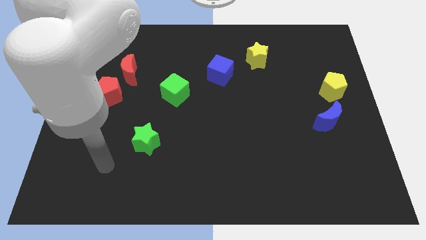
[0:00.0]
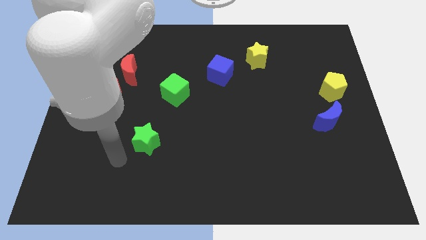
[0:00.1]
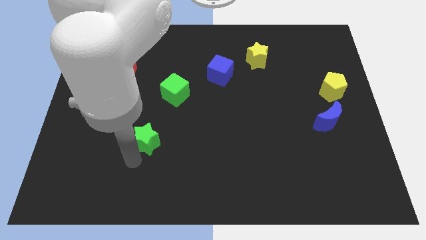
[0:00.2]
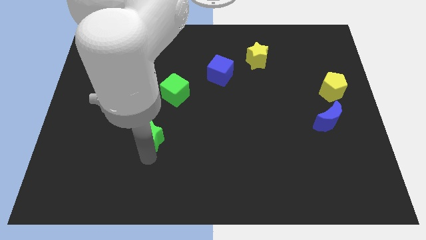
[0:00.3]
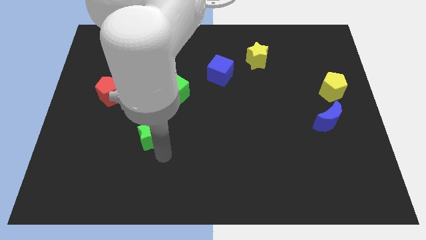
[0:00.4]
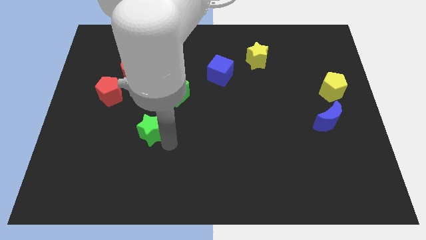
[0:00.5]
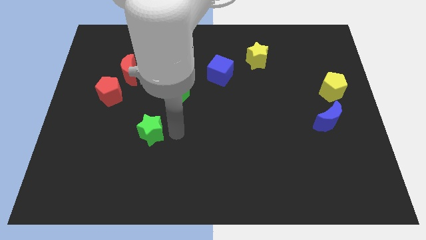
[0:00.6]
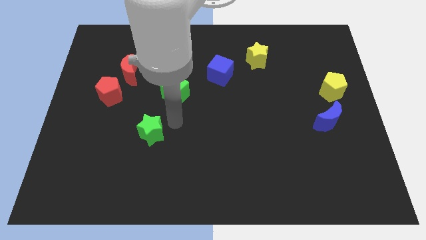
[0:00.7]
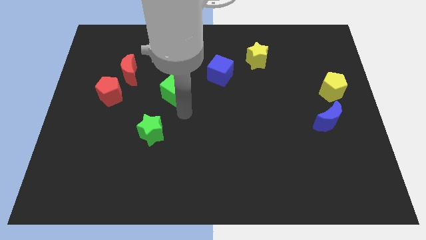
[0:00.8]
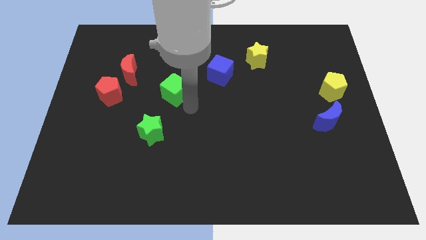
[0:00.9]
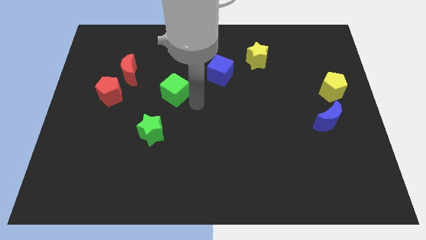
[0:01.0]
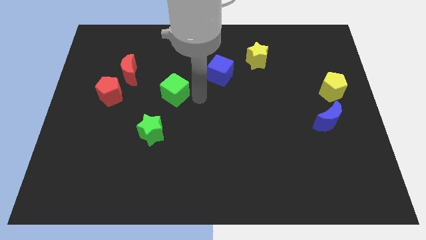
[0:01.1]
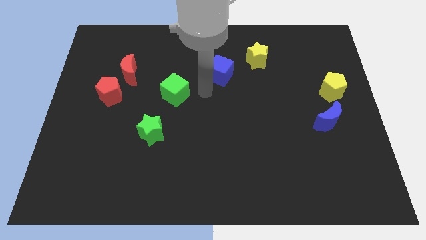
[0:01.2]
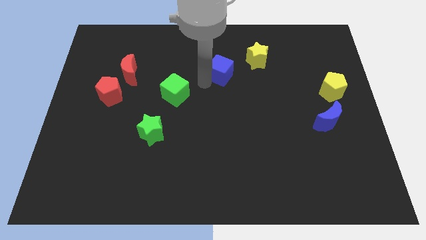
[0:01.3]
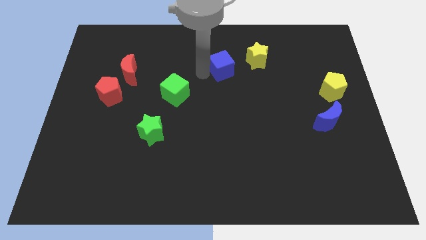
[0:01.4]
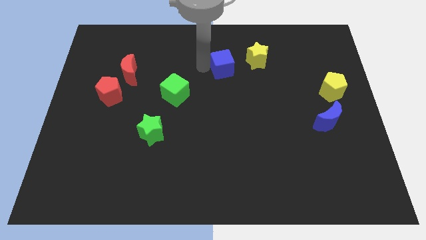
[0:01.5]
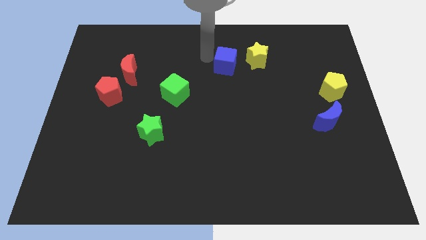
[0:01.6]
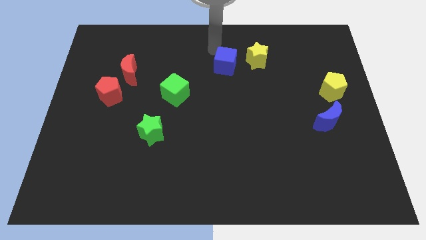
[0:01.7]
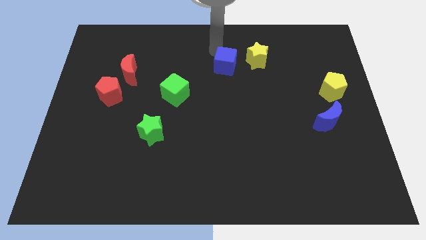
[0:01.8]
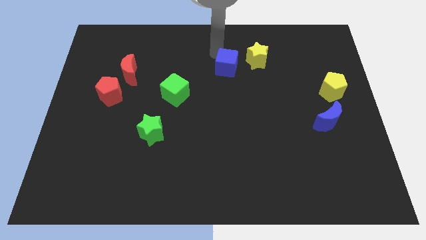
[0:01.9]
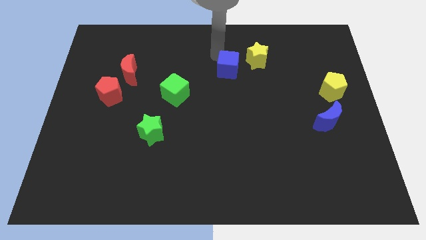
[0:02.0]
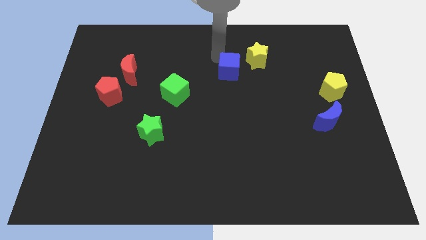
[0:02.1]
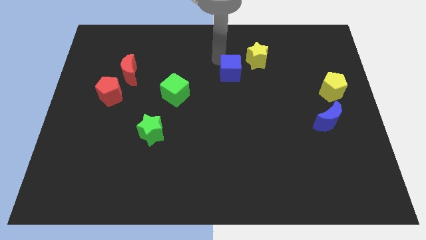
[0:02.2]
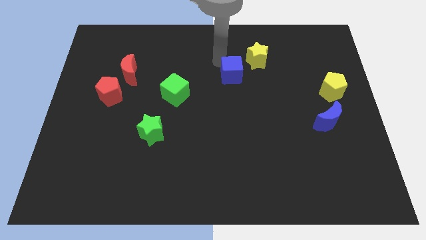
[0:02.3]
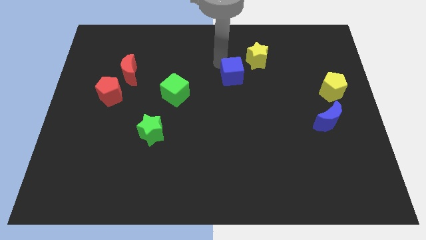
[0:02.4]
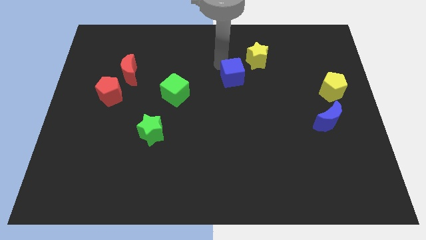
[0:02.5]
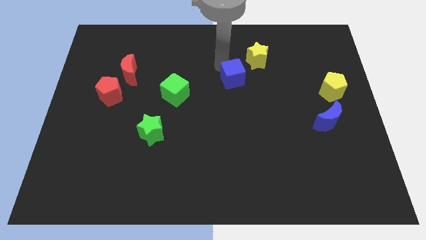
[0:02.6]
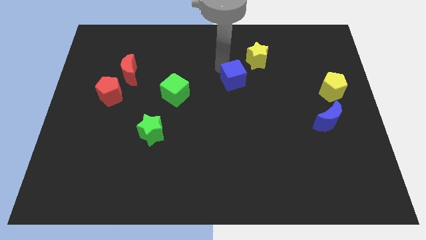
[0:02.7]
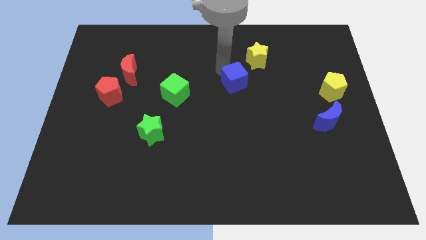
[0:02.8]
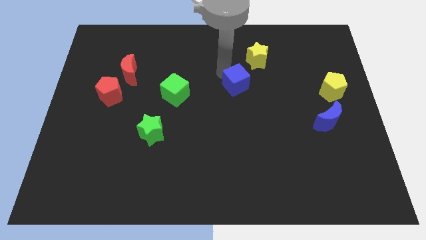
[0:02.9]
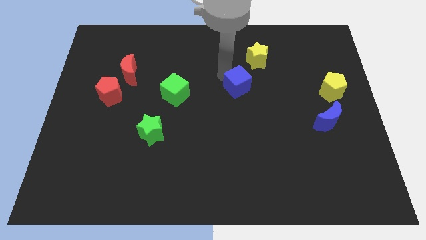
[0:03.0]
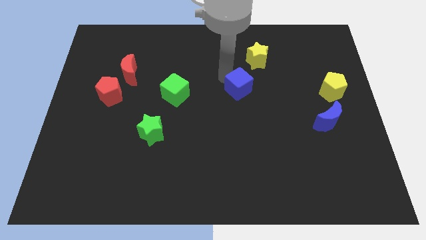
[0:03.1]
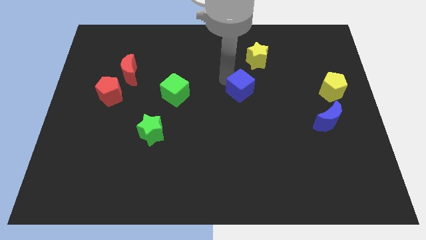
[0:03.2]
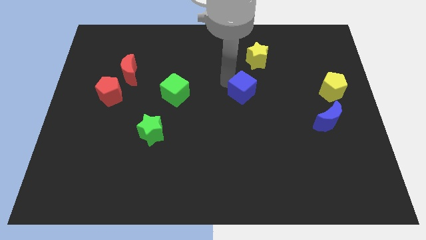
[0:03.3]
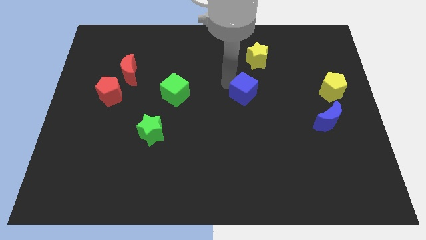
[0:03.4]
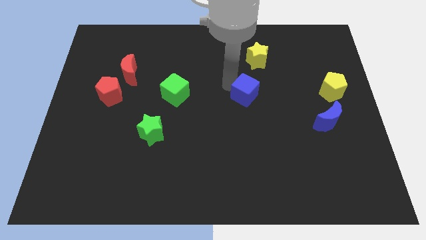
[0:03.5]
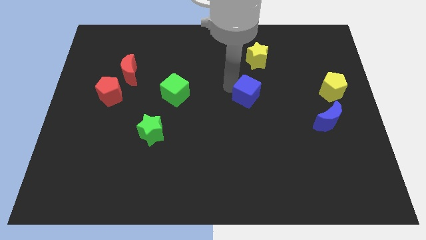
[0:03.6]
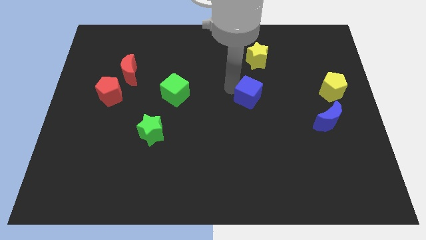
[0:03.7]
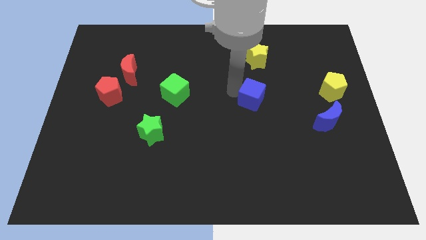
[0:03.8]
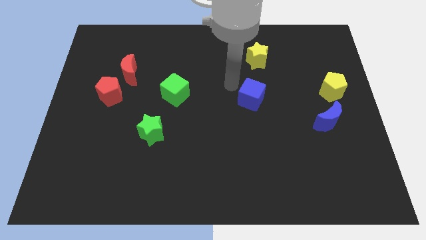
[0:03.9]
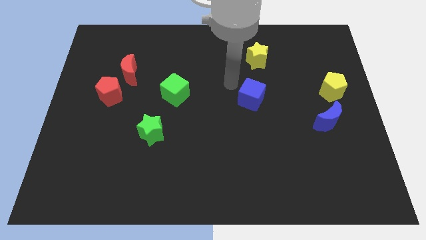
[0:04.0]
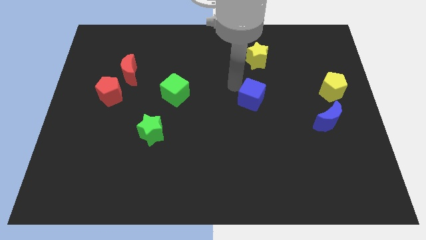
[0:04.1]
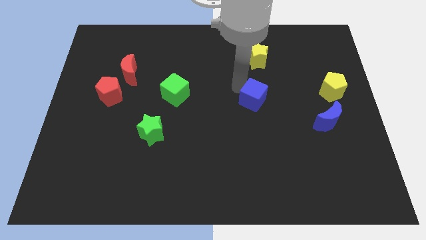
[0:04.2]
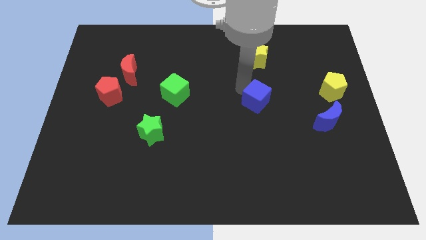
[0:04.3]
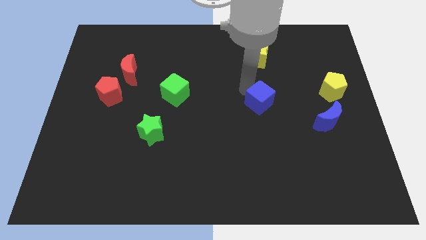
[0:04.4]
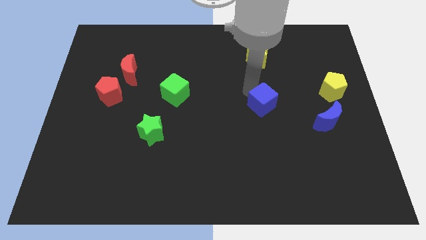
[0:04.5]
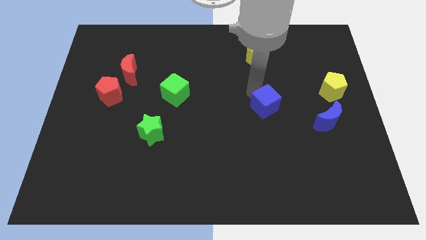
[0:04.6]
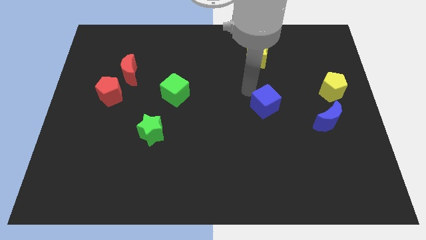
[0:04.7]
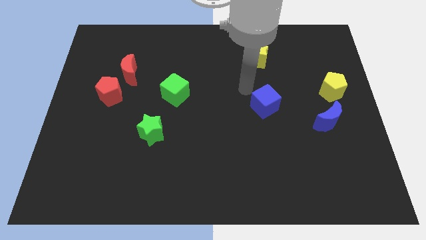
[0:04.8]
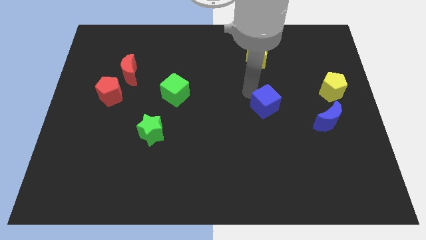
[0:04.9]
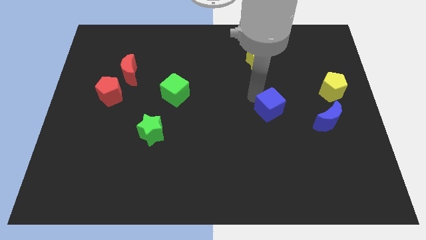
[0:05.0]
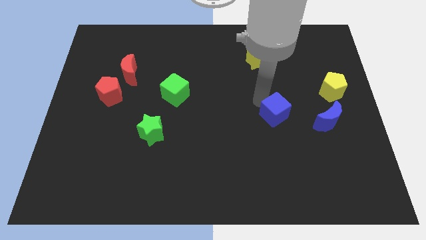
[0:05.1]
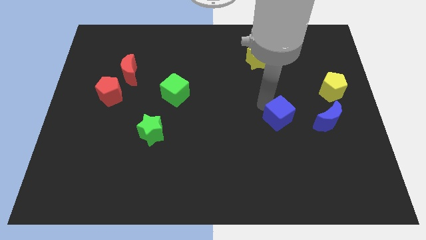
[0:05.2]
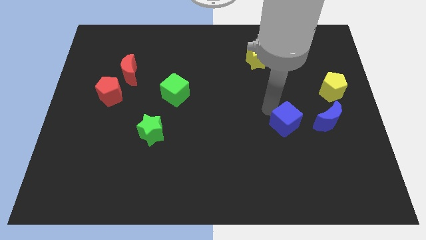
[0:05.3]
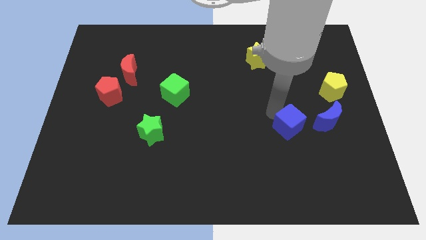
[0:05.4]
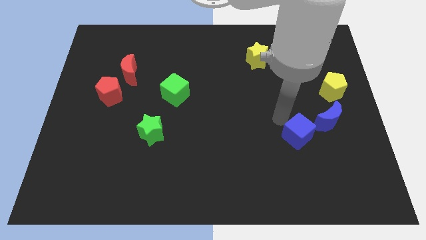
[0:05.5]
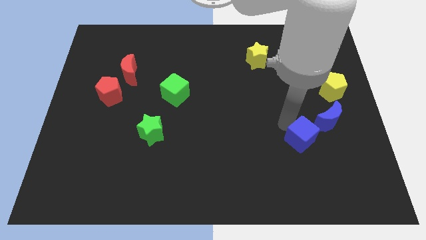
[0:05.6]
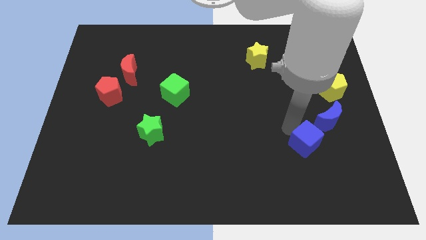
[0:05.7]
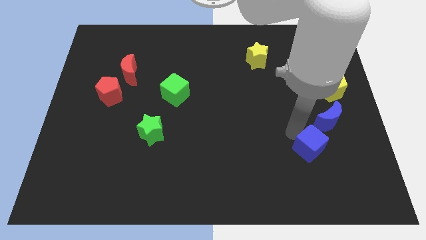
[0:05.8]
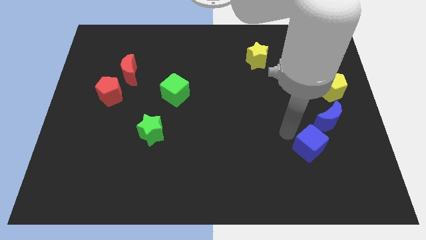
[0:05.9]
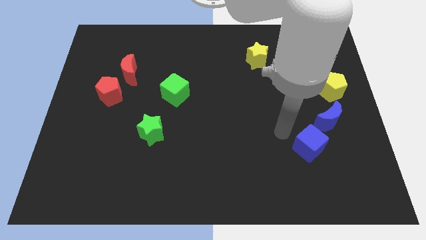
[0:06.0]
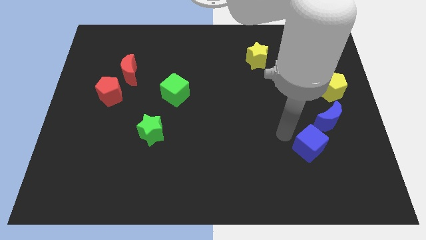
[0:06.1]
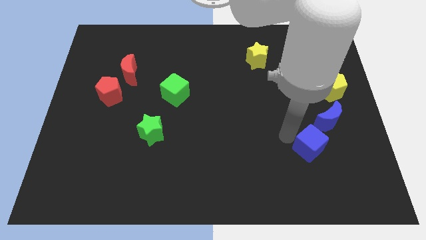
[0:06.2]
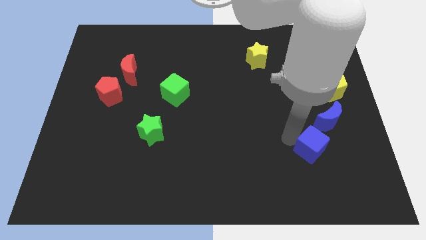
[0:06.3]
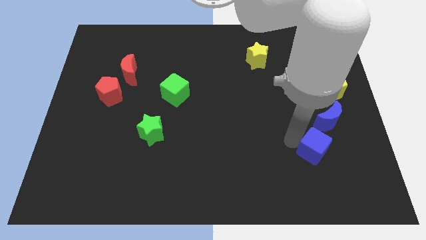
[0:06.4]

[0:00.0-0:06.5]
push the blue cube to the bottom of the blue moon

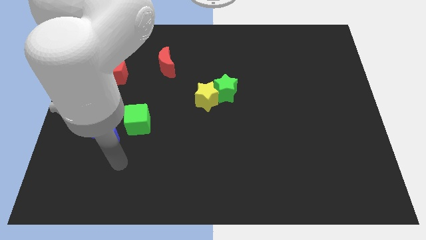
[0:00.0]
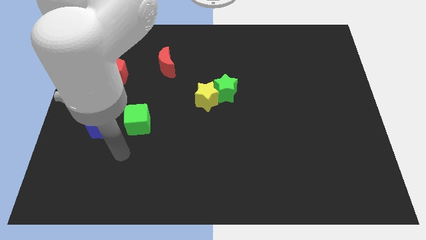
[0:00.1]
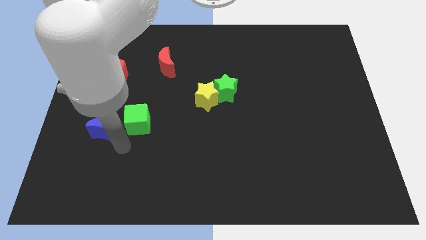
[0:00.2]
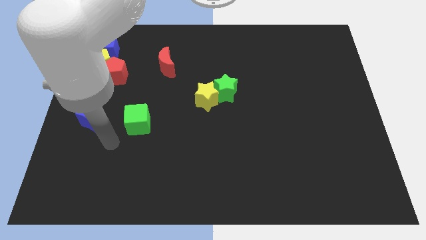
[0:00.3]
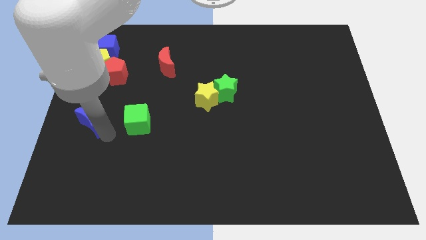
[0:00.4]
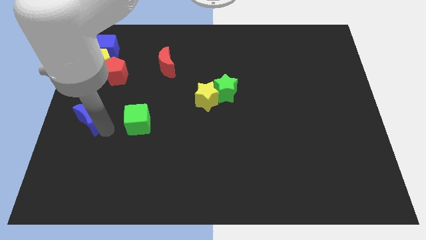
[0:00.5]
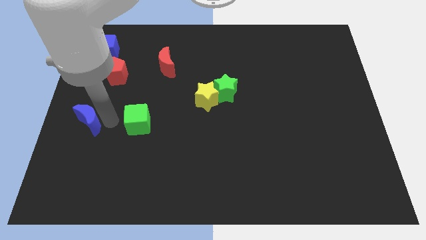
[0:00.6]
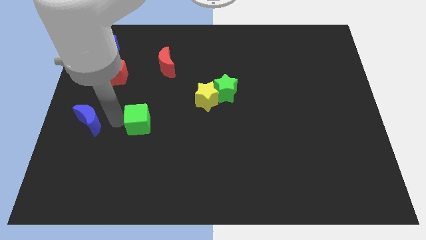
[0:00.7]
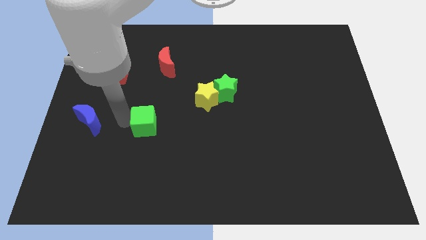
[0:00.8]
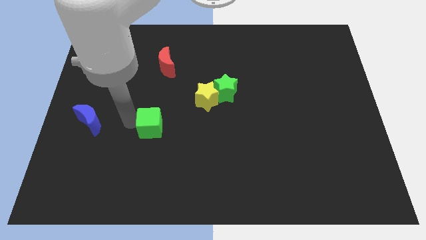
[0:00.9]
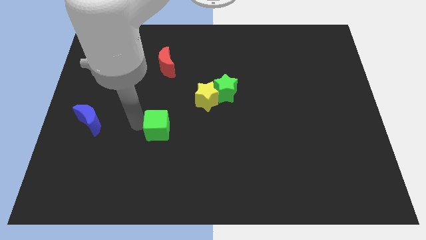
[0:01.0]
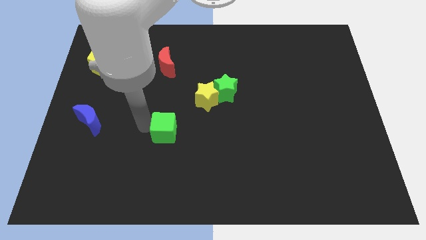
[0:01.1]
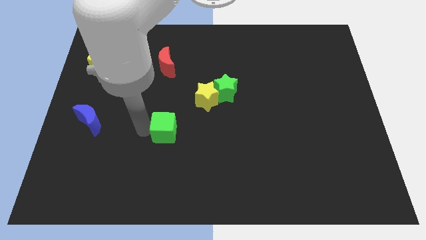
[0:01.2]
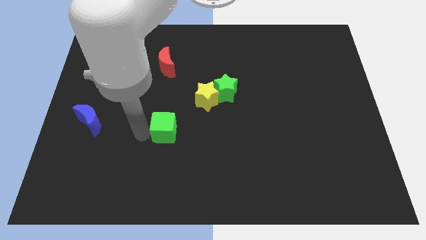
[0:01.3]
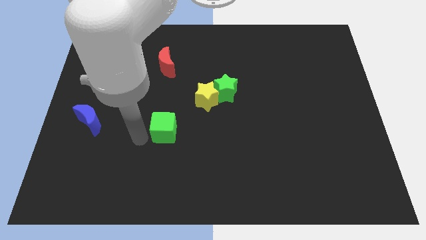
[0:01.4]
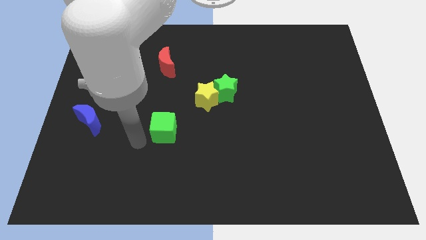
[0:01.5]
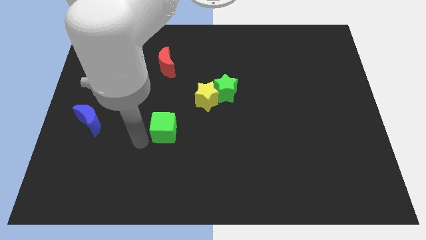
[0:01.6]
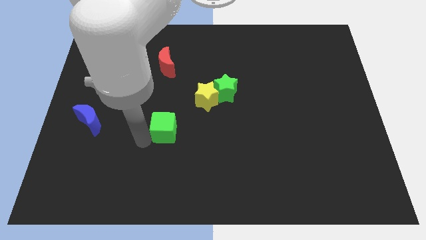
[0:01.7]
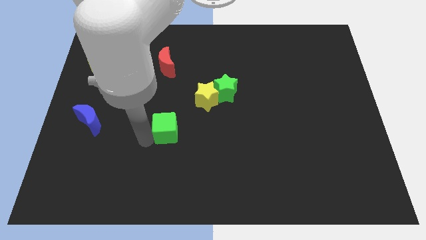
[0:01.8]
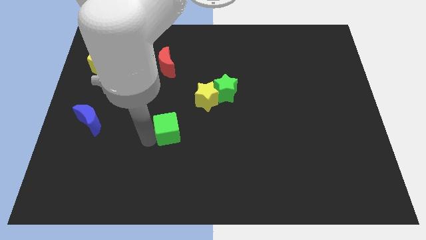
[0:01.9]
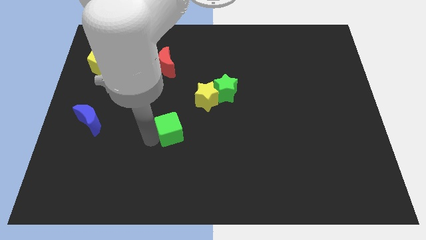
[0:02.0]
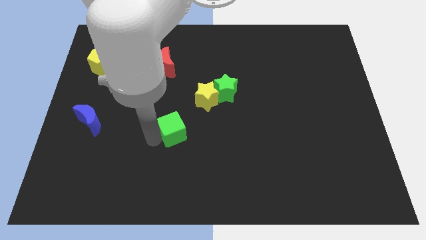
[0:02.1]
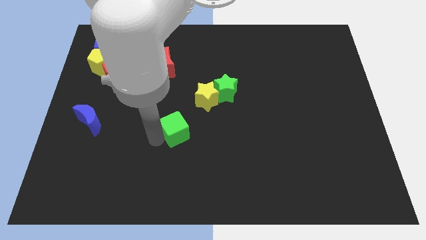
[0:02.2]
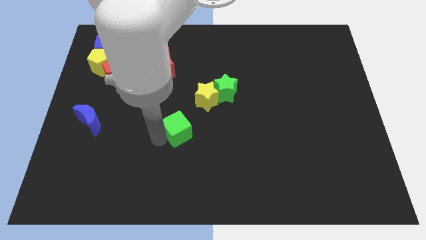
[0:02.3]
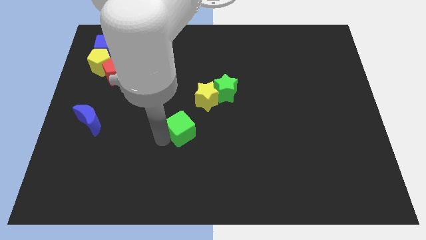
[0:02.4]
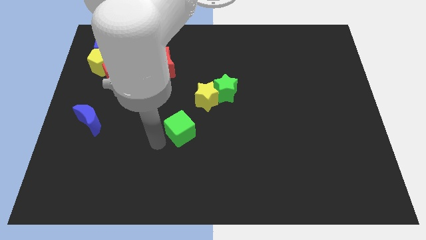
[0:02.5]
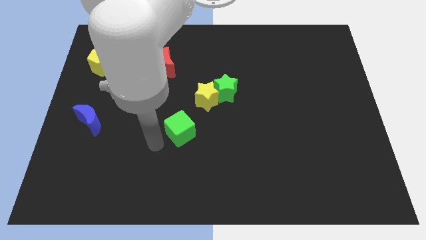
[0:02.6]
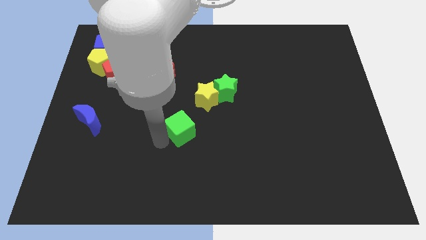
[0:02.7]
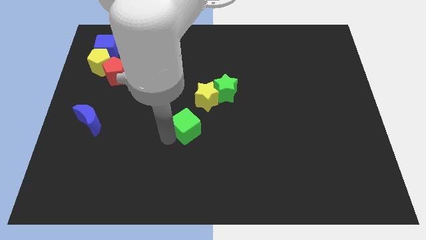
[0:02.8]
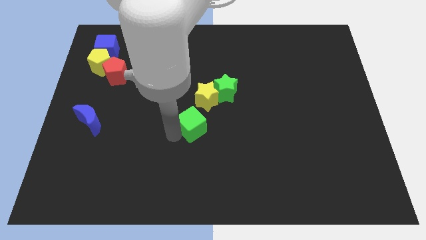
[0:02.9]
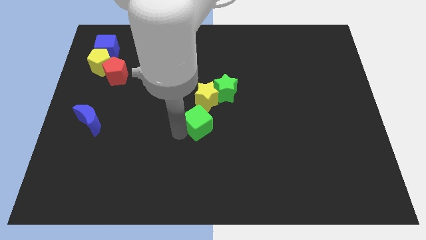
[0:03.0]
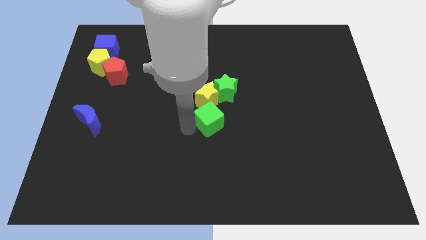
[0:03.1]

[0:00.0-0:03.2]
slide the green cube diagonally down and to the right of the yellow star
